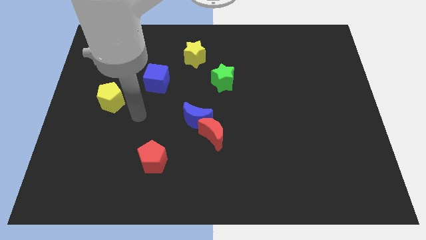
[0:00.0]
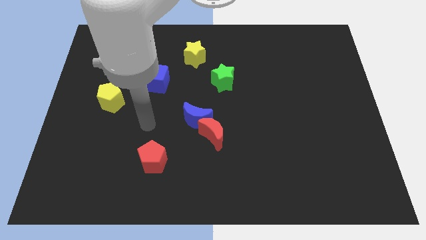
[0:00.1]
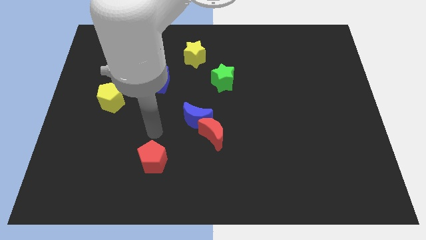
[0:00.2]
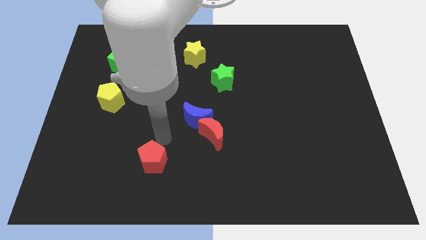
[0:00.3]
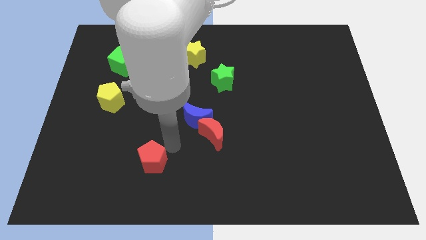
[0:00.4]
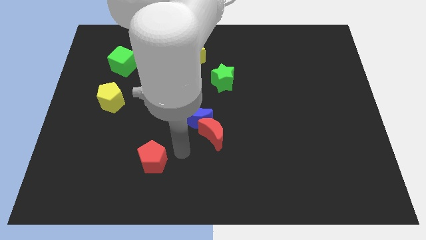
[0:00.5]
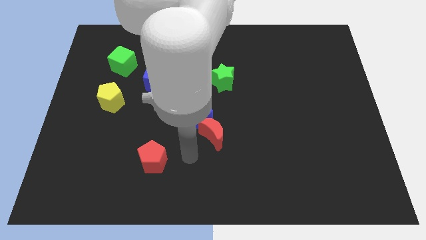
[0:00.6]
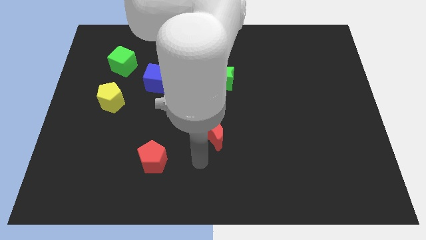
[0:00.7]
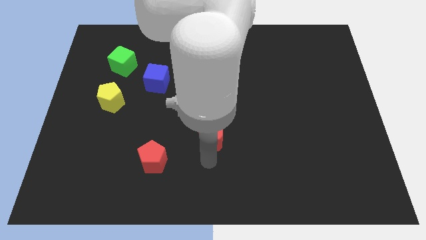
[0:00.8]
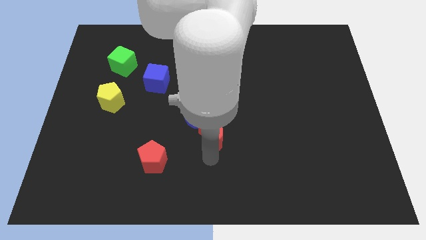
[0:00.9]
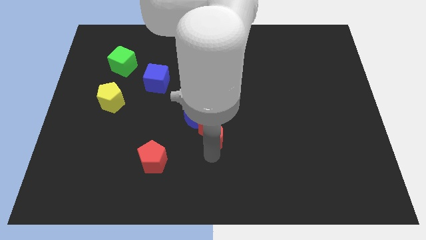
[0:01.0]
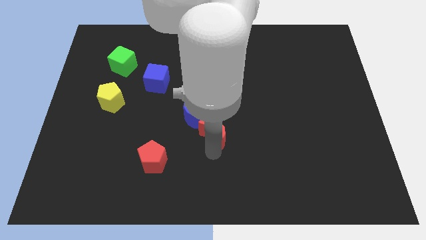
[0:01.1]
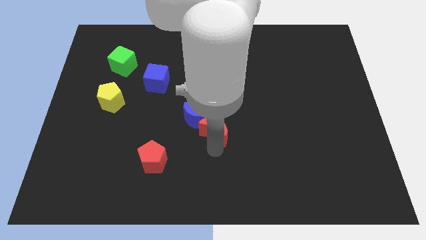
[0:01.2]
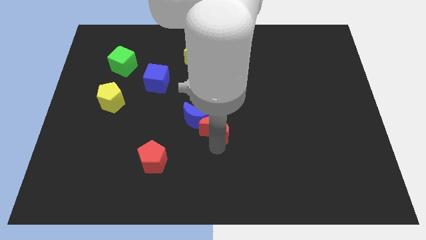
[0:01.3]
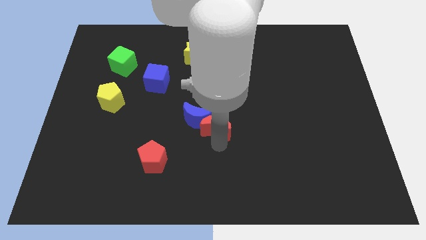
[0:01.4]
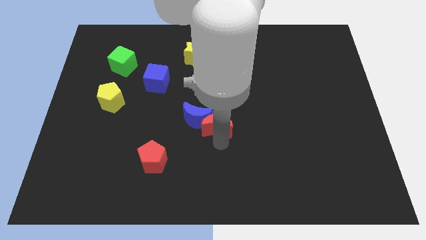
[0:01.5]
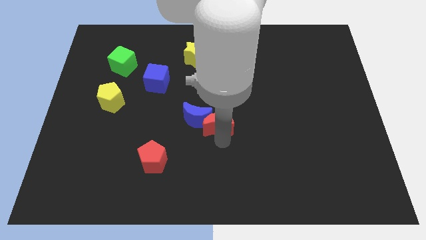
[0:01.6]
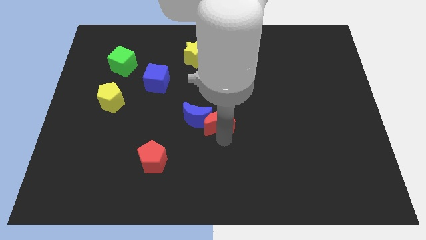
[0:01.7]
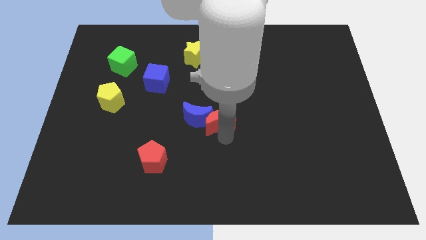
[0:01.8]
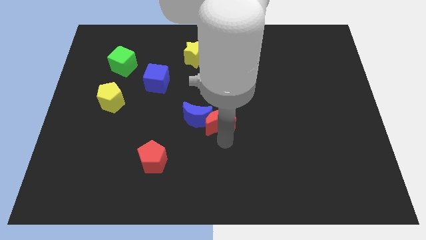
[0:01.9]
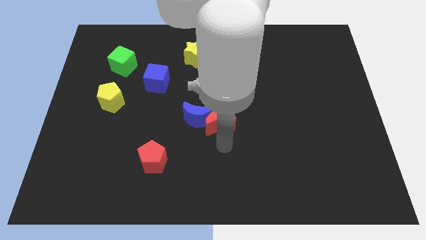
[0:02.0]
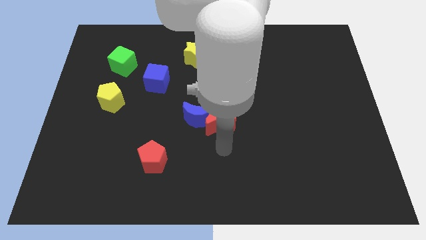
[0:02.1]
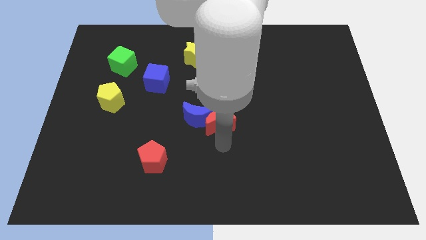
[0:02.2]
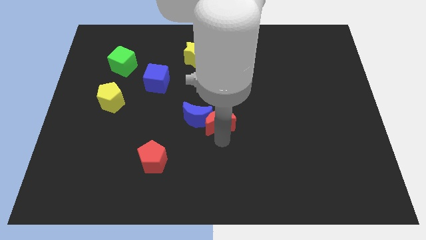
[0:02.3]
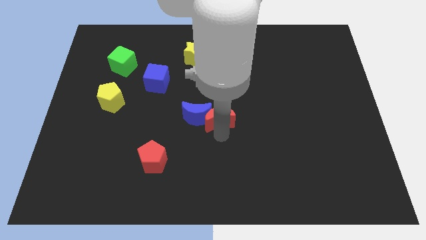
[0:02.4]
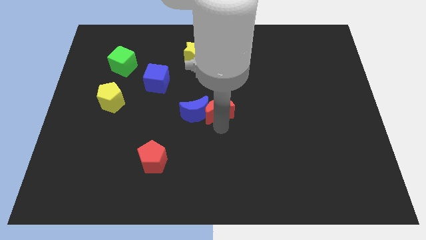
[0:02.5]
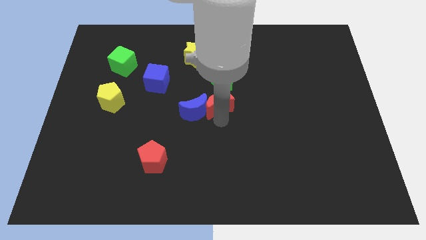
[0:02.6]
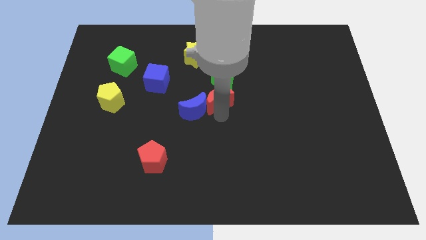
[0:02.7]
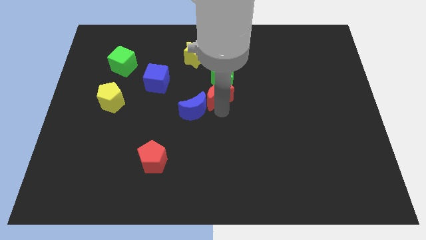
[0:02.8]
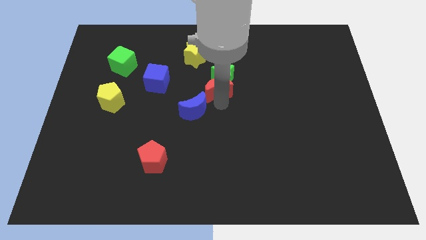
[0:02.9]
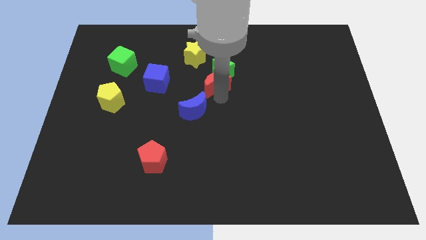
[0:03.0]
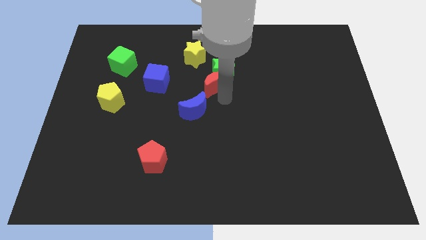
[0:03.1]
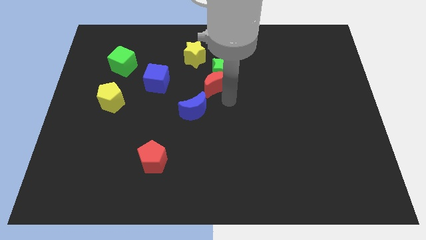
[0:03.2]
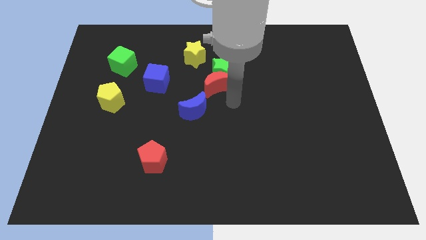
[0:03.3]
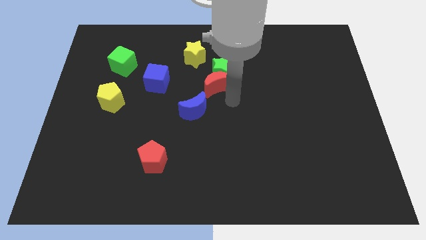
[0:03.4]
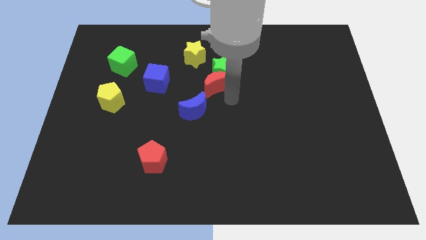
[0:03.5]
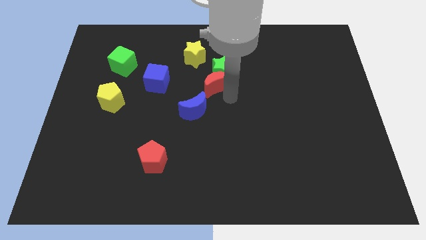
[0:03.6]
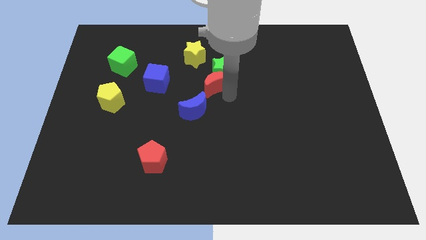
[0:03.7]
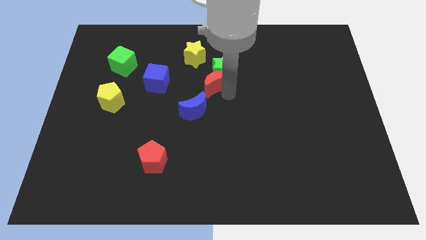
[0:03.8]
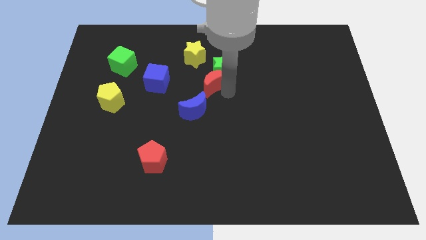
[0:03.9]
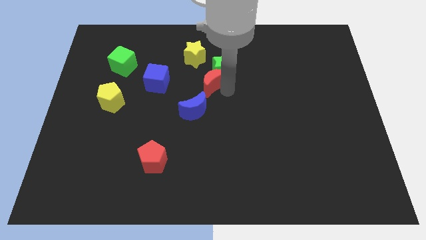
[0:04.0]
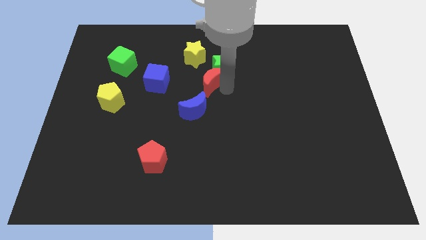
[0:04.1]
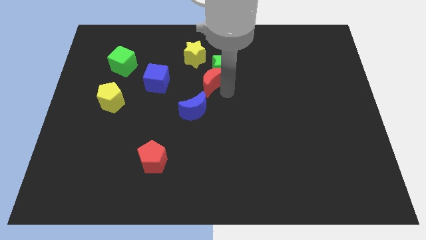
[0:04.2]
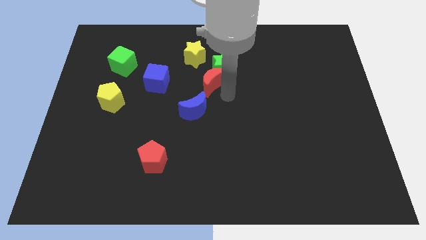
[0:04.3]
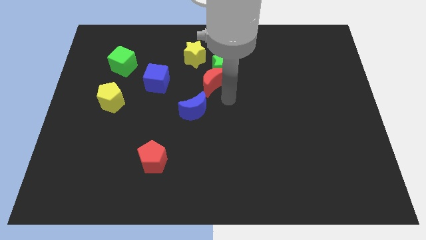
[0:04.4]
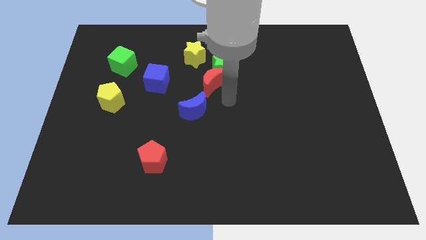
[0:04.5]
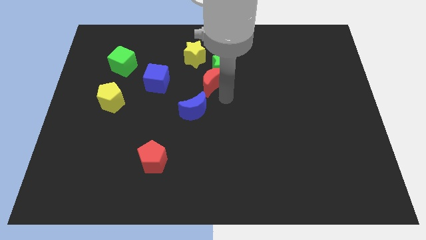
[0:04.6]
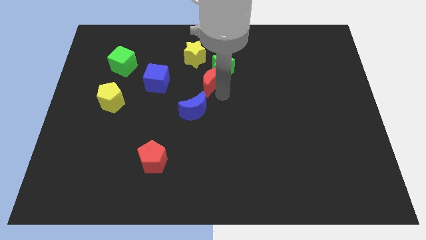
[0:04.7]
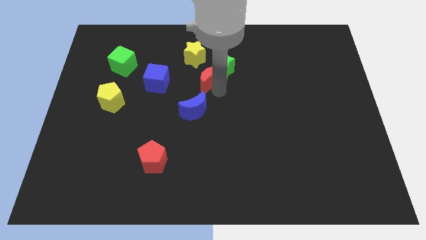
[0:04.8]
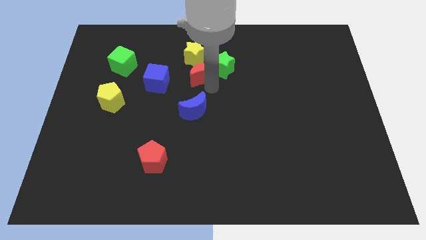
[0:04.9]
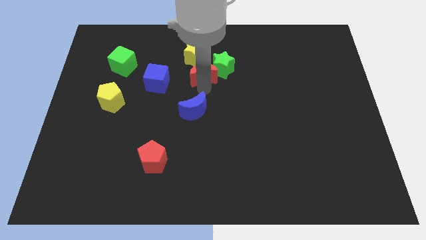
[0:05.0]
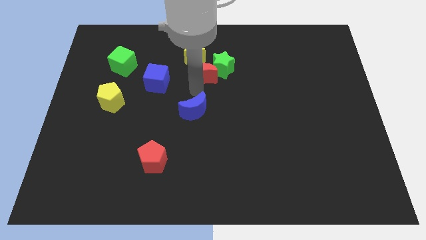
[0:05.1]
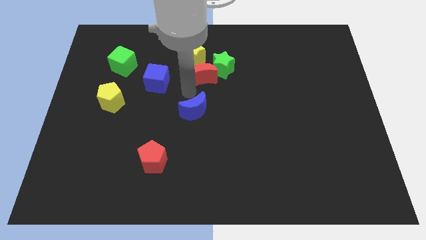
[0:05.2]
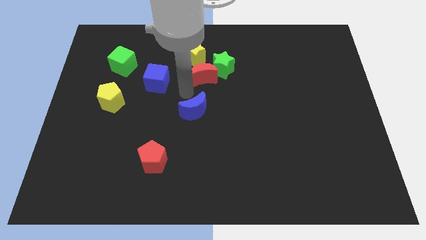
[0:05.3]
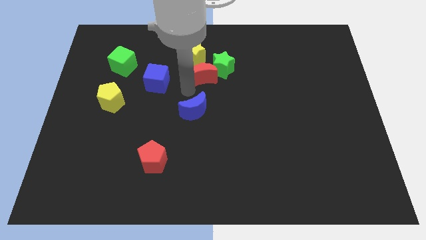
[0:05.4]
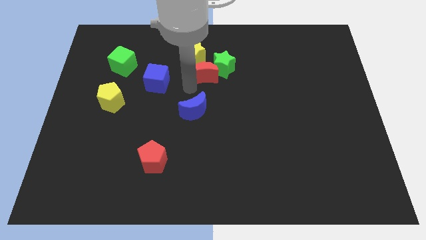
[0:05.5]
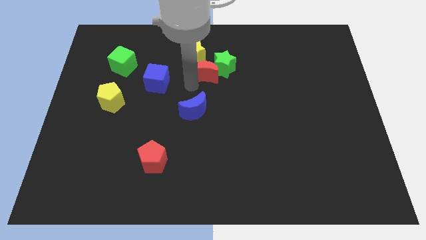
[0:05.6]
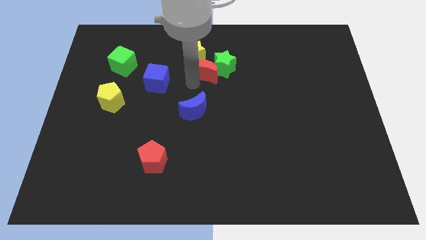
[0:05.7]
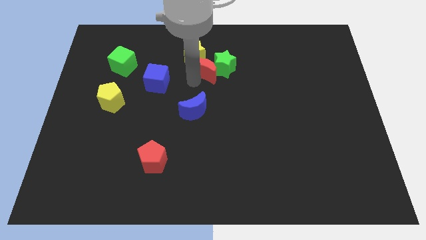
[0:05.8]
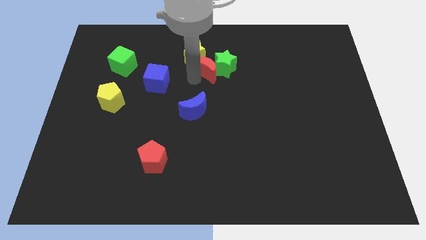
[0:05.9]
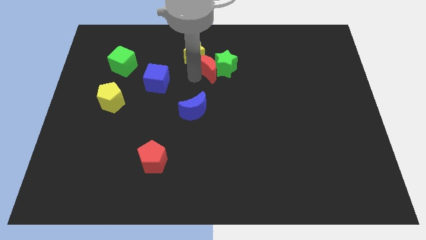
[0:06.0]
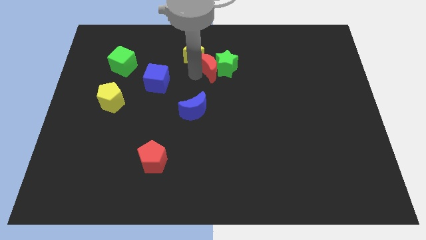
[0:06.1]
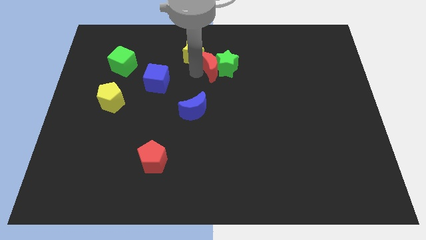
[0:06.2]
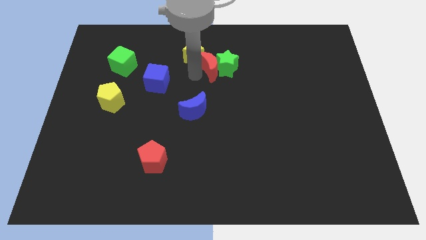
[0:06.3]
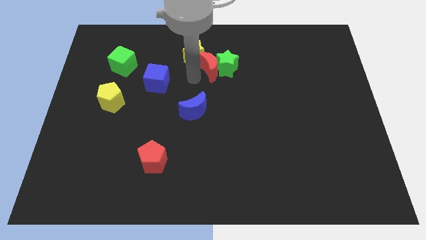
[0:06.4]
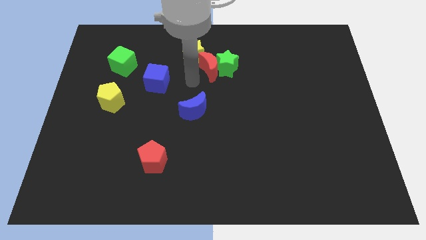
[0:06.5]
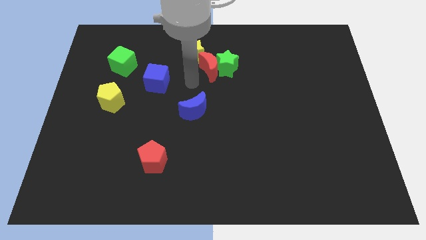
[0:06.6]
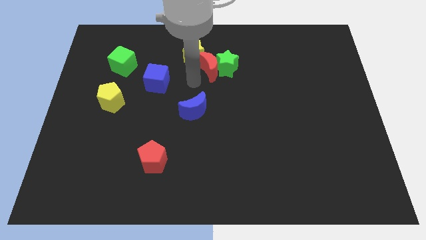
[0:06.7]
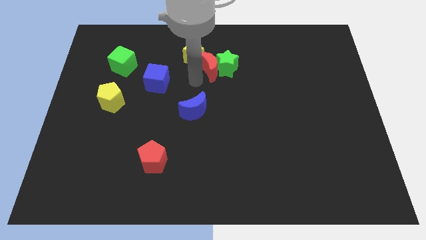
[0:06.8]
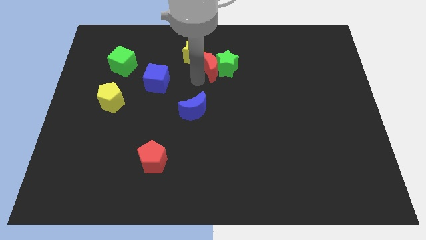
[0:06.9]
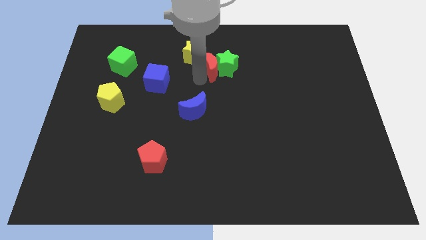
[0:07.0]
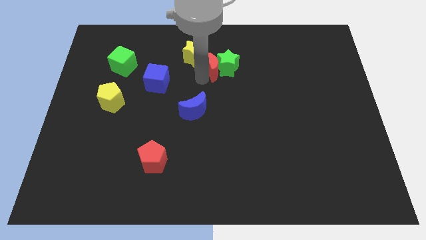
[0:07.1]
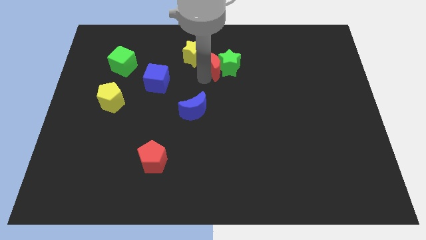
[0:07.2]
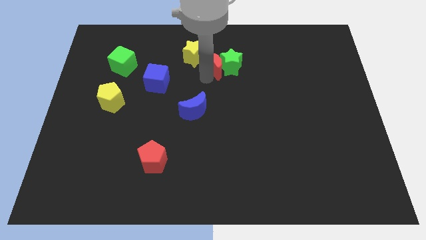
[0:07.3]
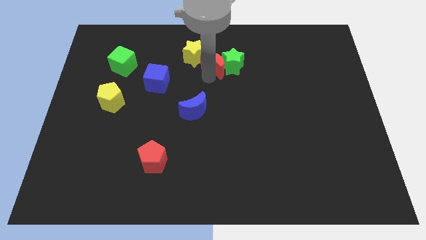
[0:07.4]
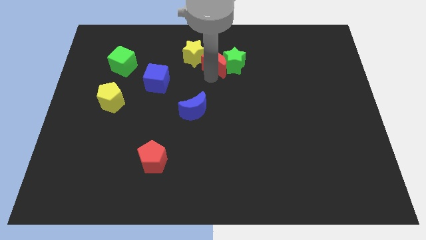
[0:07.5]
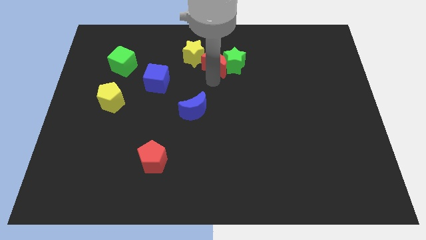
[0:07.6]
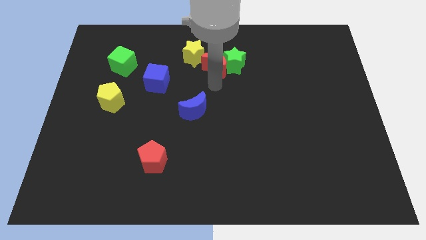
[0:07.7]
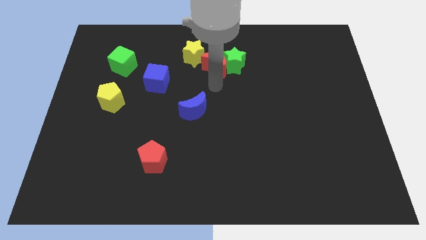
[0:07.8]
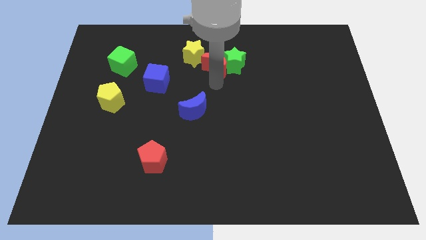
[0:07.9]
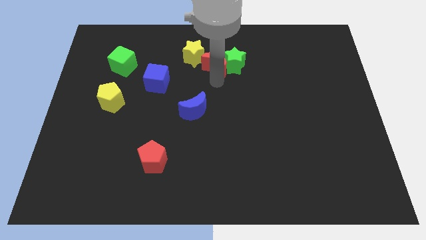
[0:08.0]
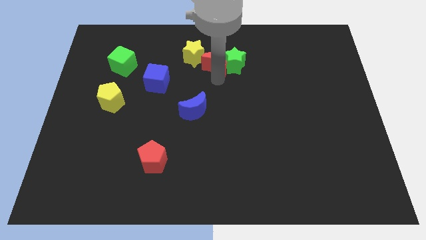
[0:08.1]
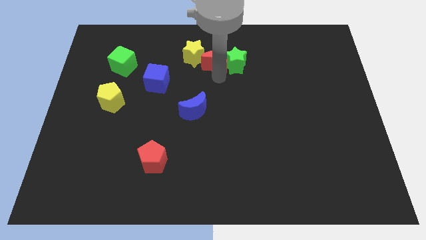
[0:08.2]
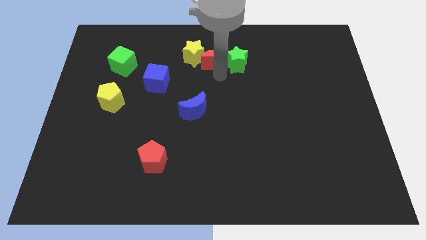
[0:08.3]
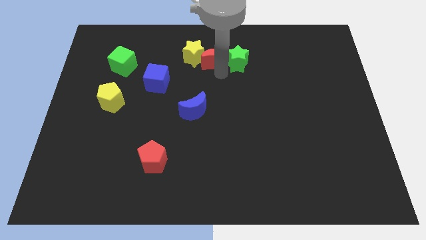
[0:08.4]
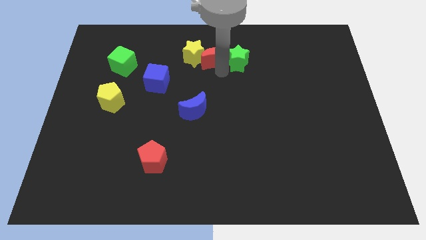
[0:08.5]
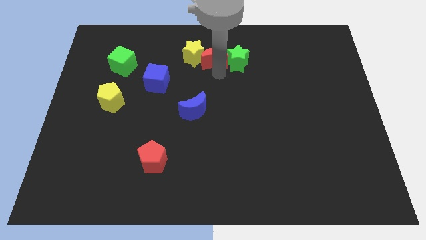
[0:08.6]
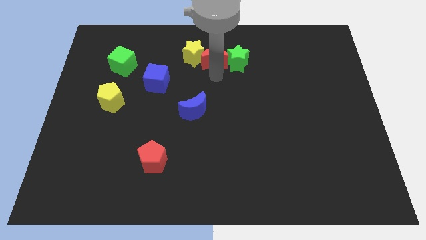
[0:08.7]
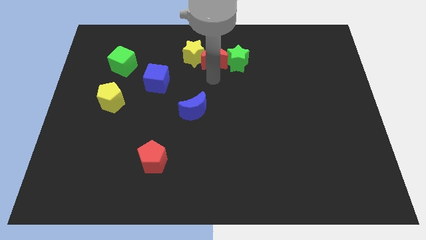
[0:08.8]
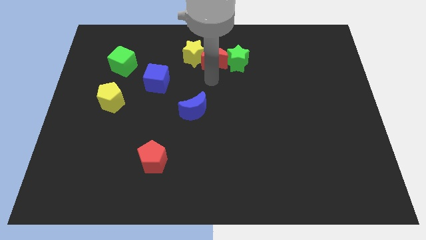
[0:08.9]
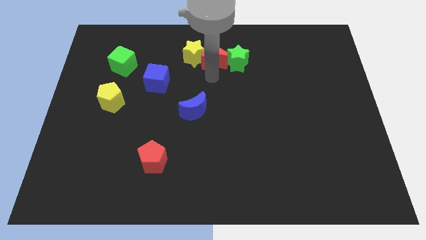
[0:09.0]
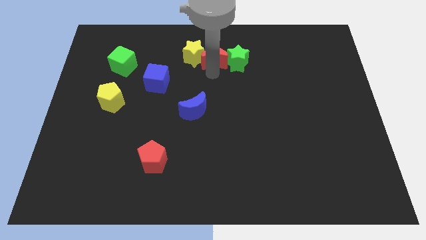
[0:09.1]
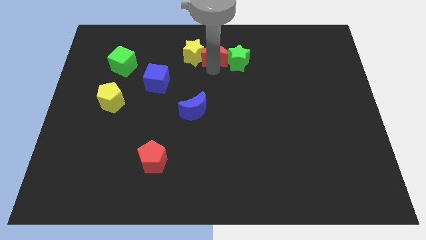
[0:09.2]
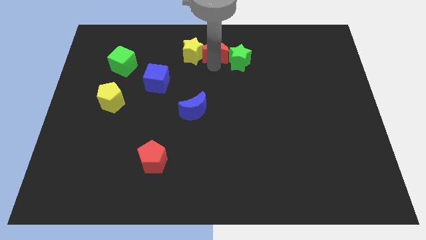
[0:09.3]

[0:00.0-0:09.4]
slide the red moon to the towards your base
